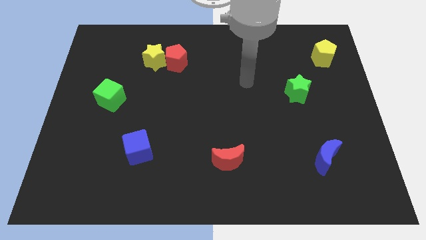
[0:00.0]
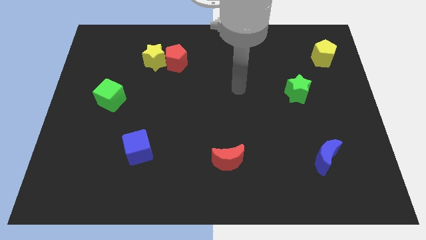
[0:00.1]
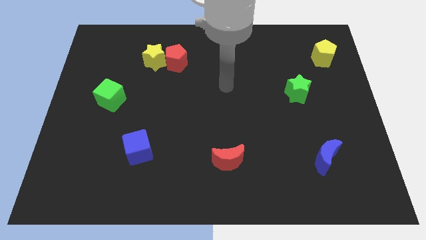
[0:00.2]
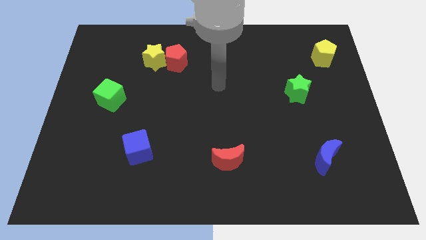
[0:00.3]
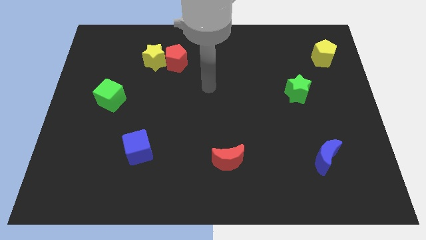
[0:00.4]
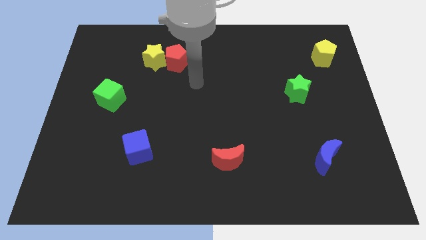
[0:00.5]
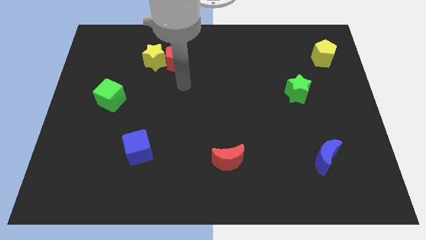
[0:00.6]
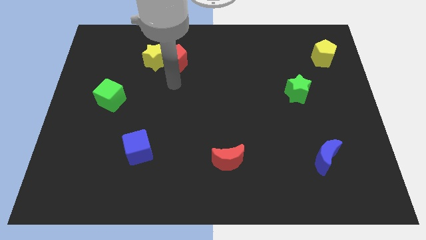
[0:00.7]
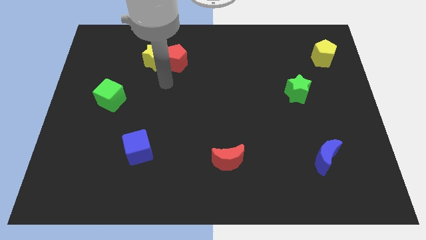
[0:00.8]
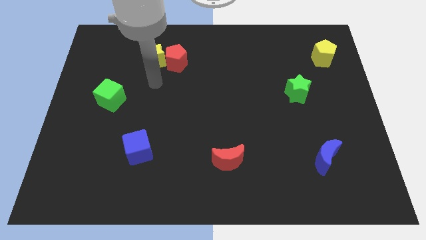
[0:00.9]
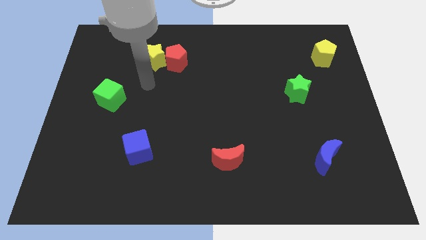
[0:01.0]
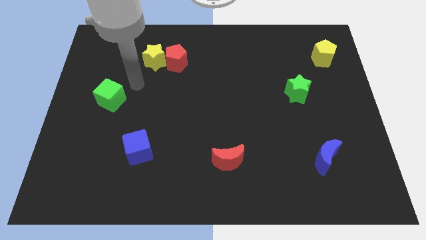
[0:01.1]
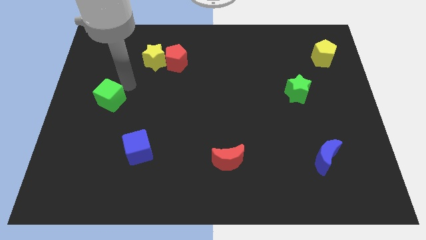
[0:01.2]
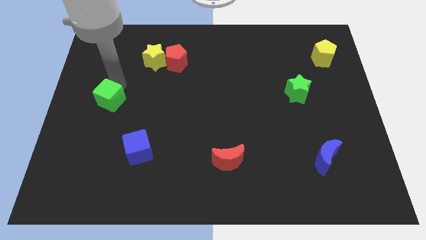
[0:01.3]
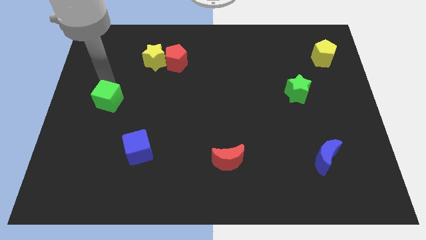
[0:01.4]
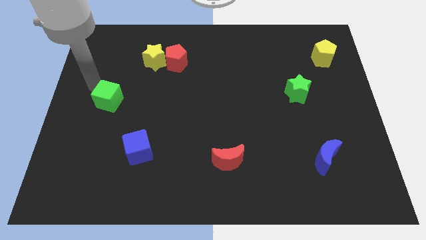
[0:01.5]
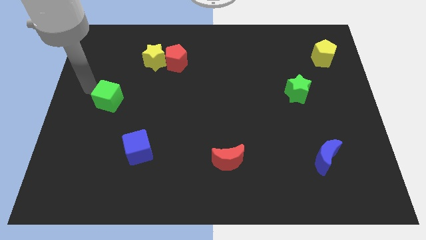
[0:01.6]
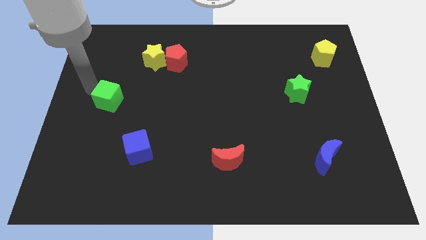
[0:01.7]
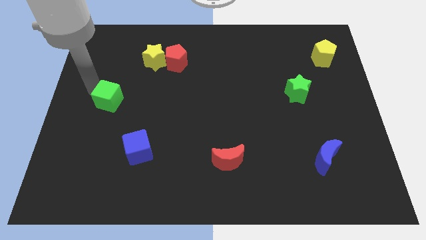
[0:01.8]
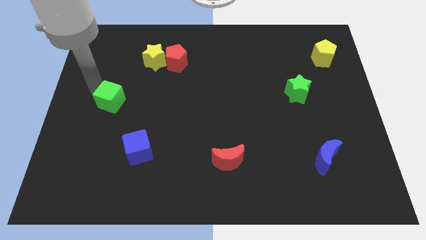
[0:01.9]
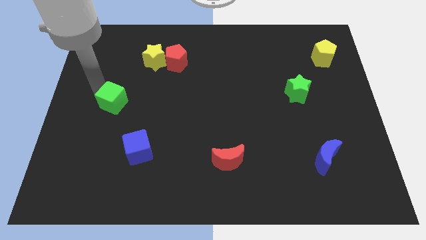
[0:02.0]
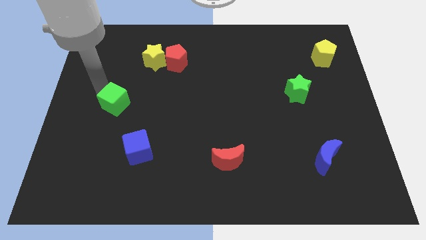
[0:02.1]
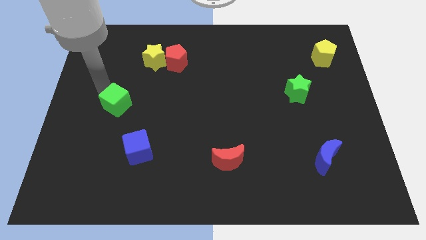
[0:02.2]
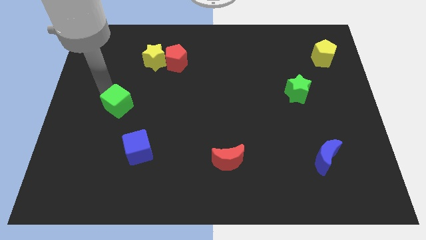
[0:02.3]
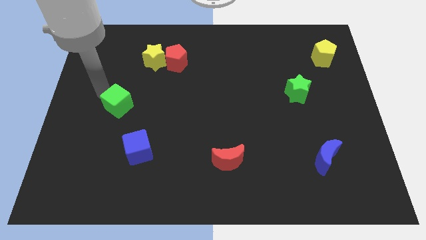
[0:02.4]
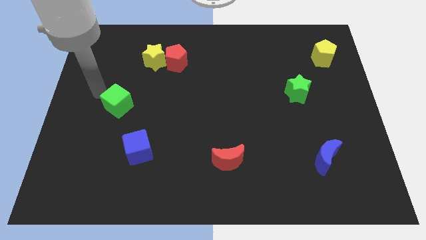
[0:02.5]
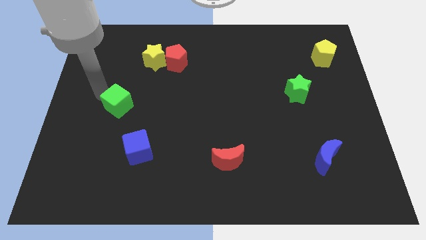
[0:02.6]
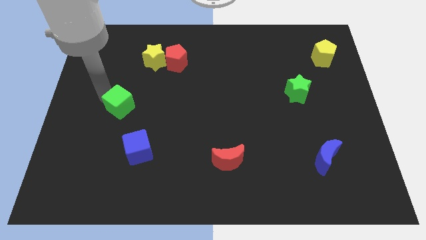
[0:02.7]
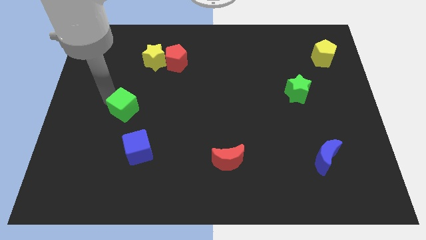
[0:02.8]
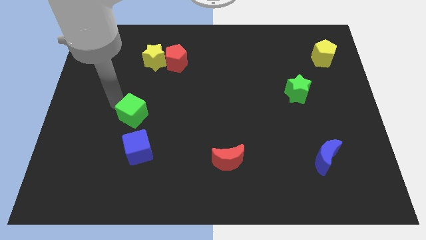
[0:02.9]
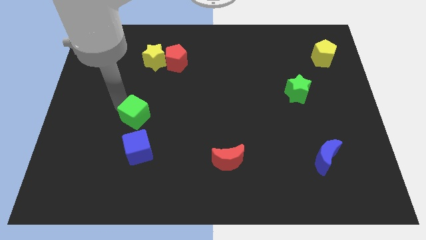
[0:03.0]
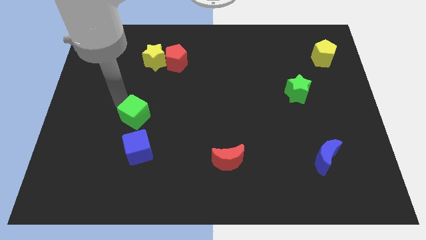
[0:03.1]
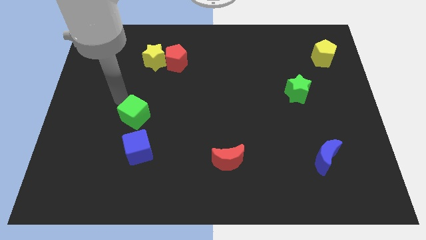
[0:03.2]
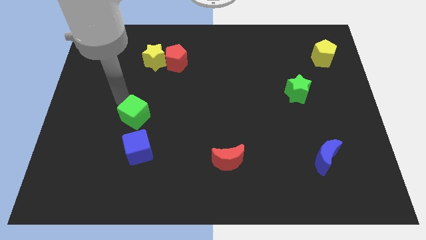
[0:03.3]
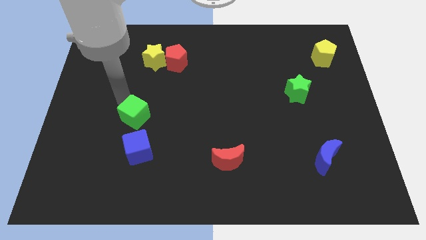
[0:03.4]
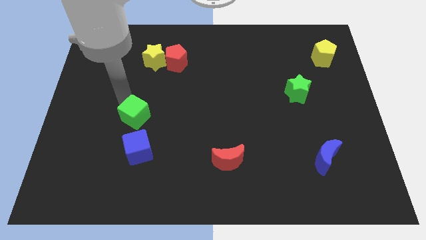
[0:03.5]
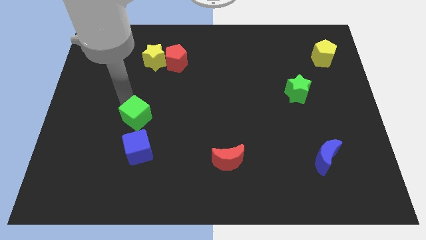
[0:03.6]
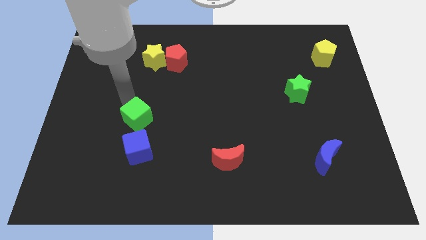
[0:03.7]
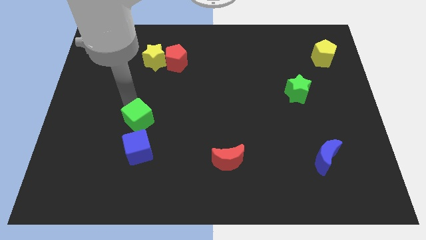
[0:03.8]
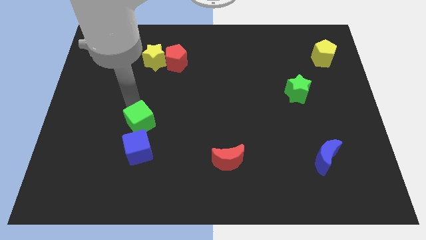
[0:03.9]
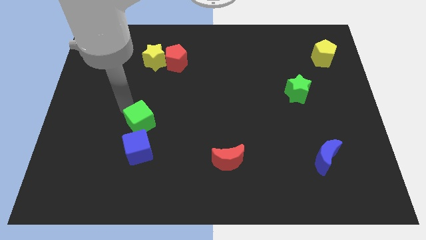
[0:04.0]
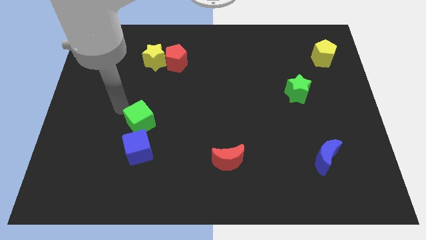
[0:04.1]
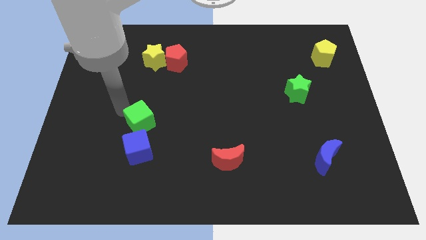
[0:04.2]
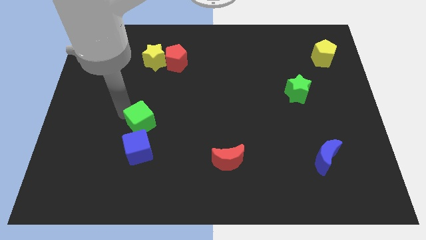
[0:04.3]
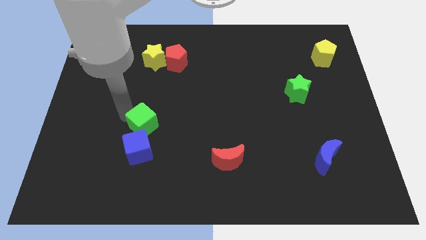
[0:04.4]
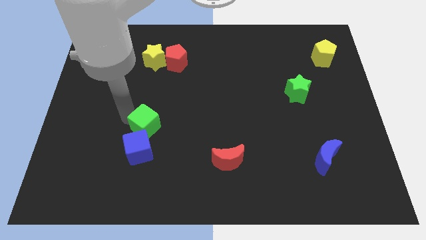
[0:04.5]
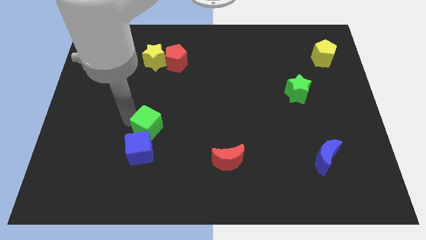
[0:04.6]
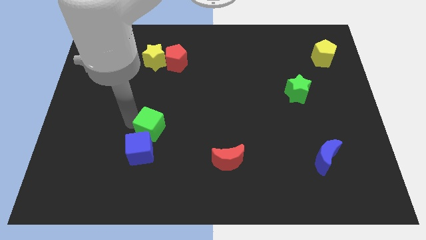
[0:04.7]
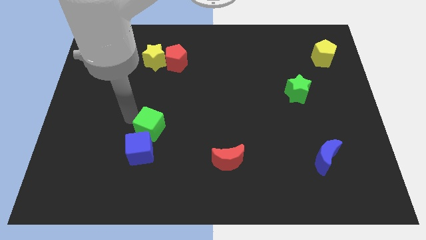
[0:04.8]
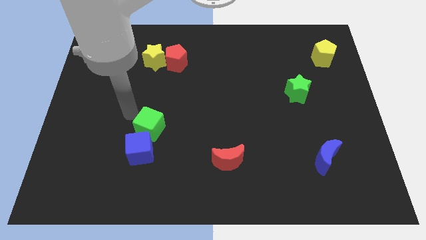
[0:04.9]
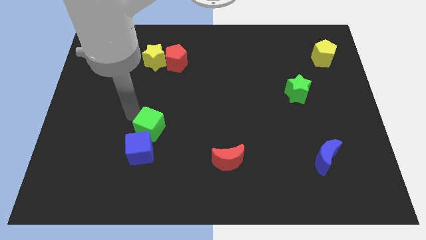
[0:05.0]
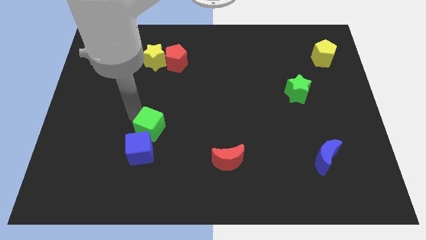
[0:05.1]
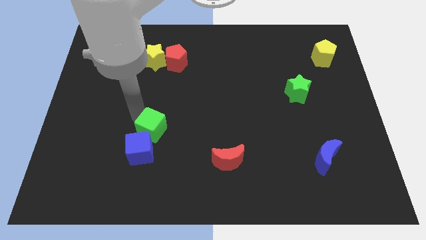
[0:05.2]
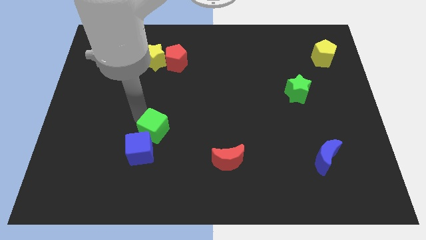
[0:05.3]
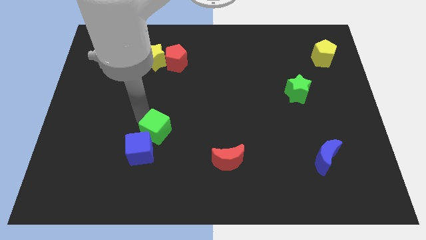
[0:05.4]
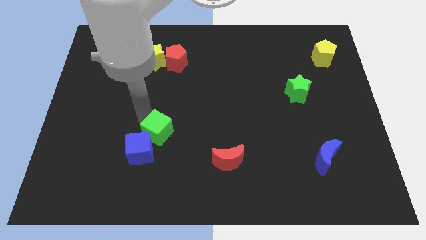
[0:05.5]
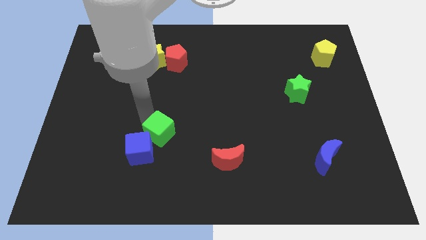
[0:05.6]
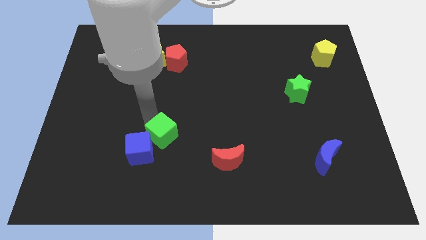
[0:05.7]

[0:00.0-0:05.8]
slide the green cube to the right of the blue cube

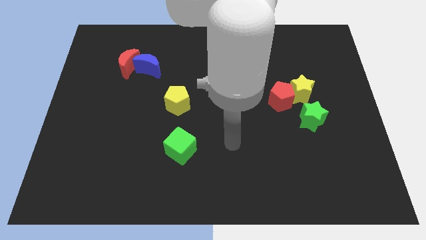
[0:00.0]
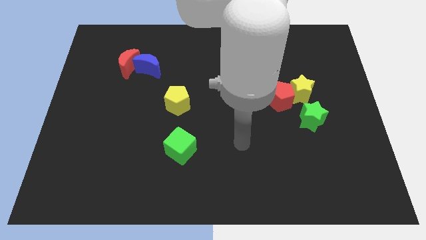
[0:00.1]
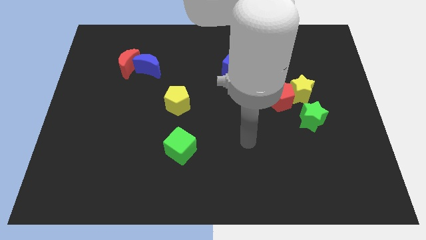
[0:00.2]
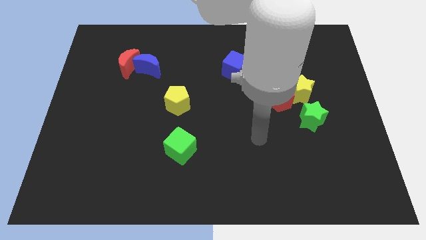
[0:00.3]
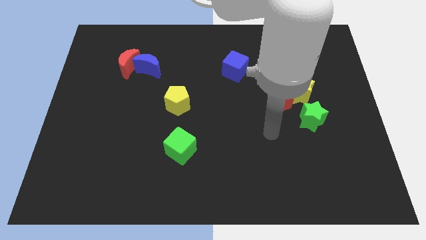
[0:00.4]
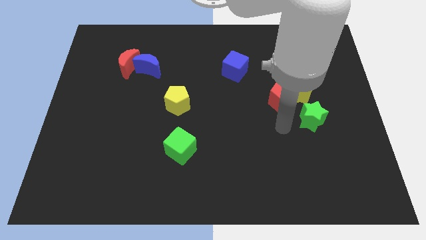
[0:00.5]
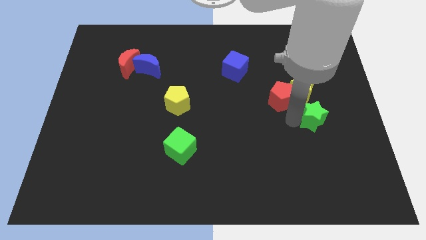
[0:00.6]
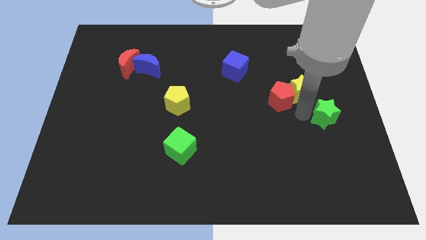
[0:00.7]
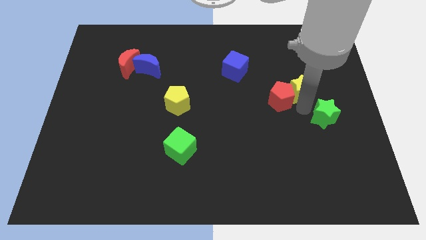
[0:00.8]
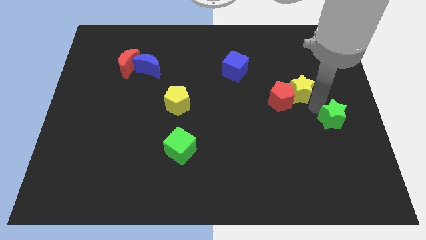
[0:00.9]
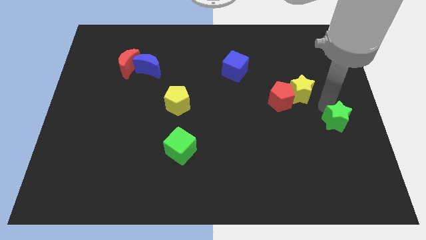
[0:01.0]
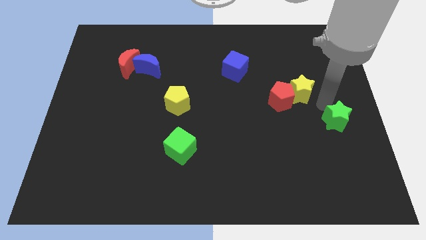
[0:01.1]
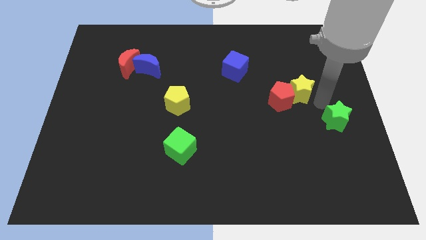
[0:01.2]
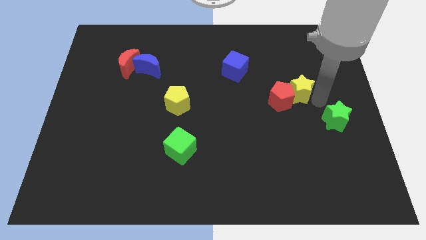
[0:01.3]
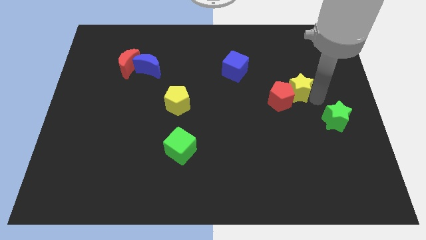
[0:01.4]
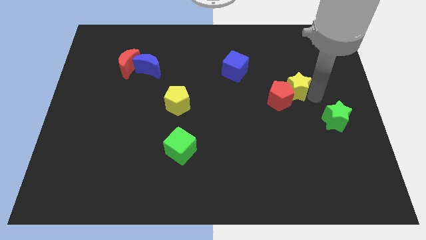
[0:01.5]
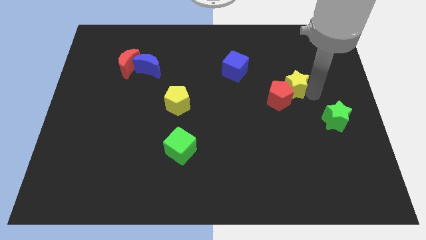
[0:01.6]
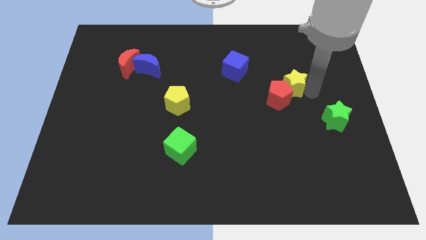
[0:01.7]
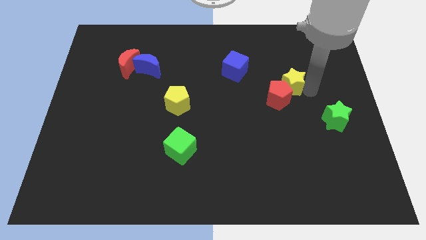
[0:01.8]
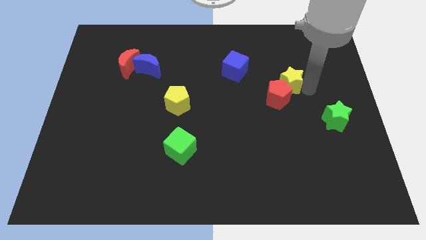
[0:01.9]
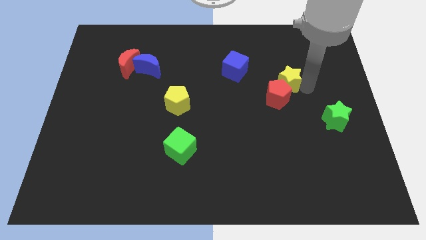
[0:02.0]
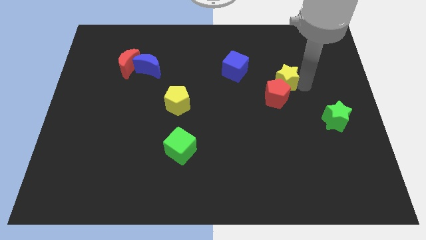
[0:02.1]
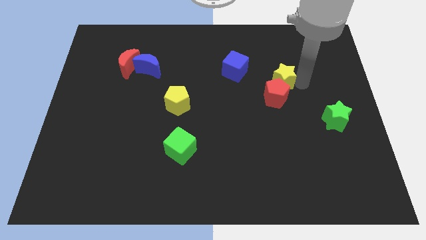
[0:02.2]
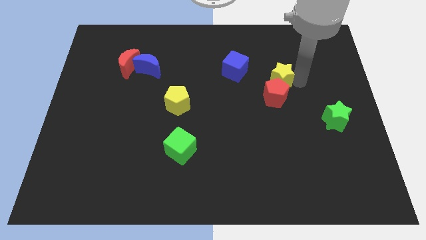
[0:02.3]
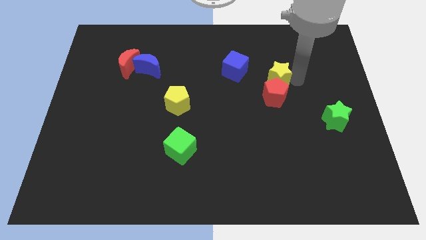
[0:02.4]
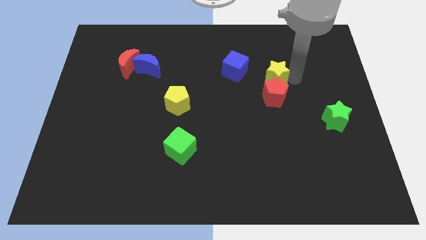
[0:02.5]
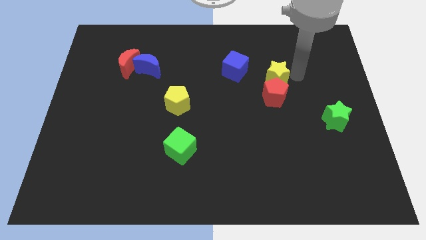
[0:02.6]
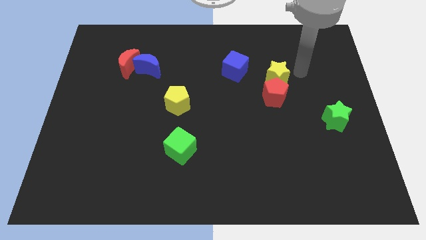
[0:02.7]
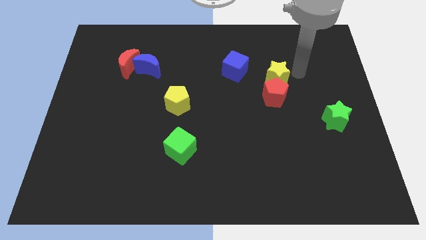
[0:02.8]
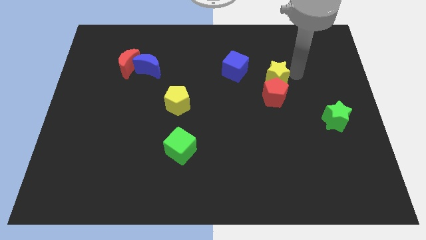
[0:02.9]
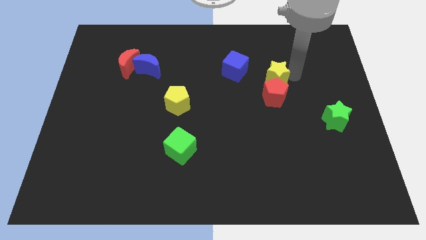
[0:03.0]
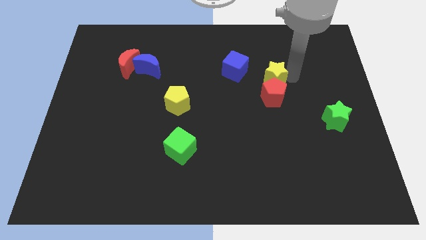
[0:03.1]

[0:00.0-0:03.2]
put the yellow star diagonally down and to the right of the blue cube
